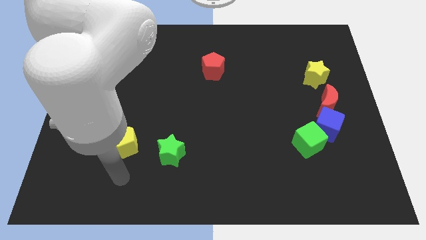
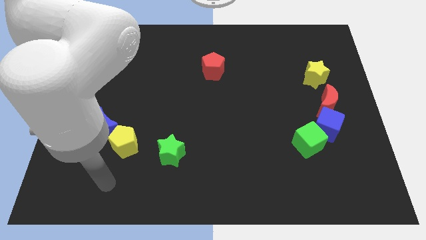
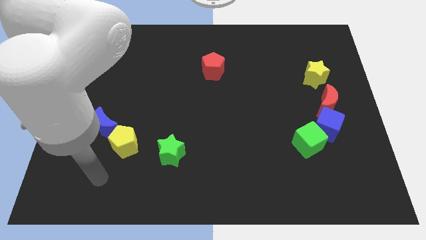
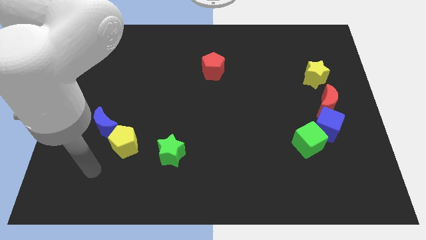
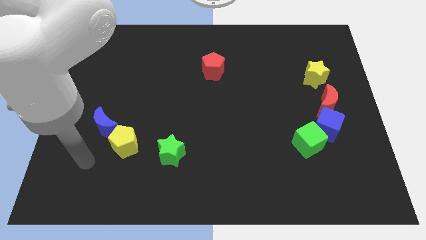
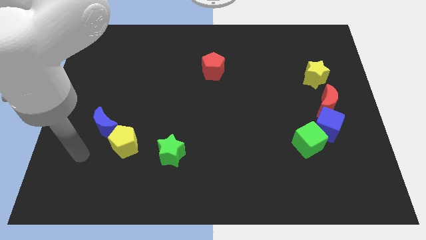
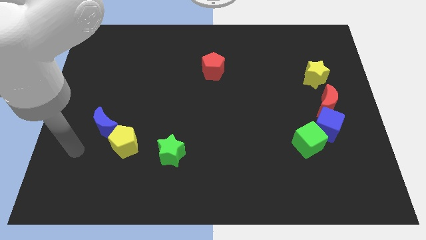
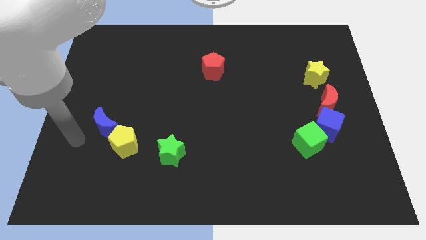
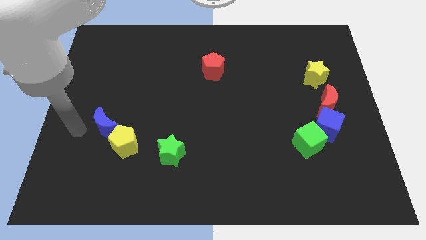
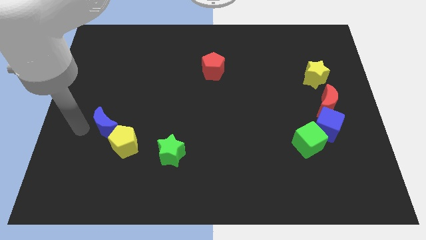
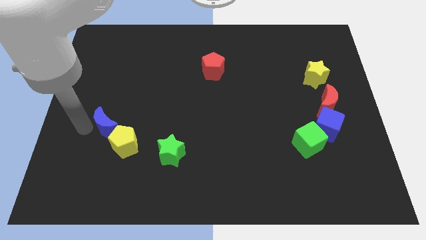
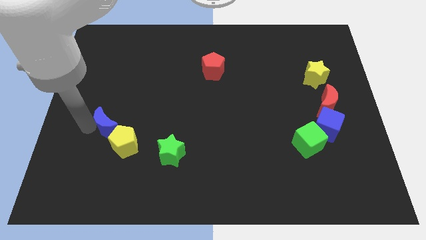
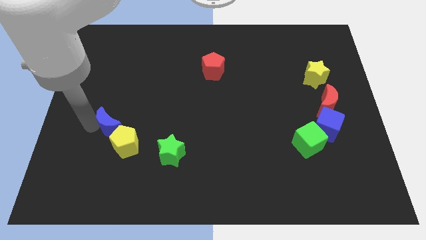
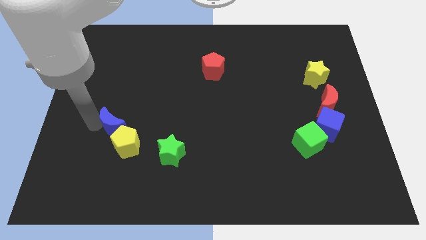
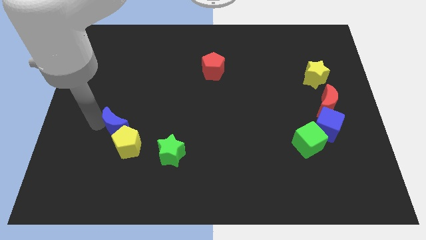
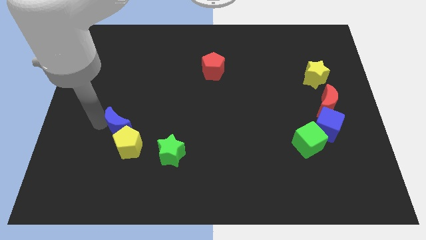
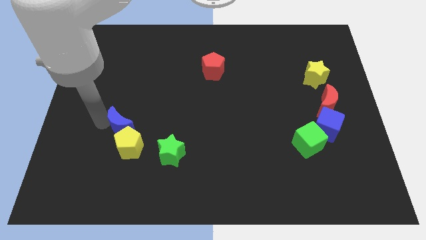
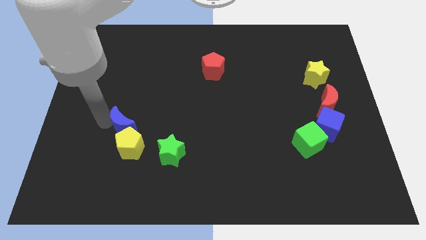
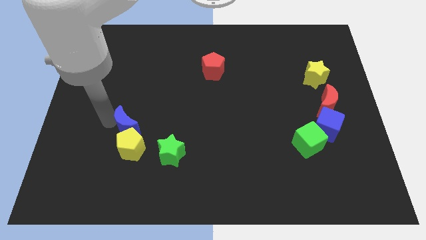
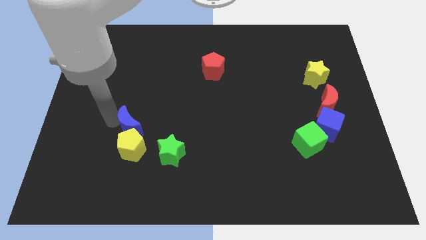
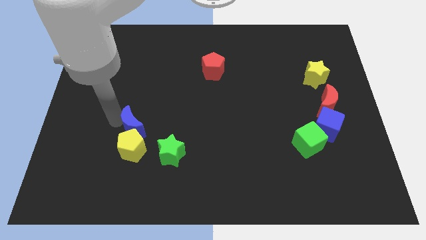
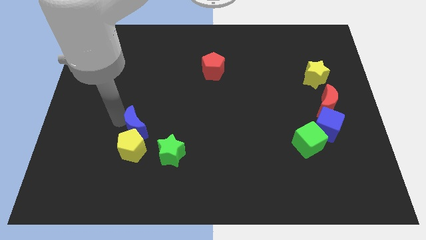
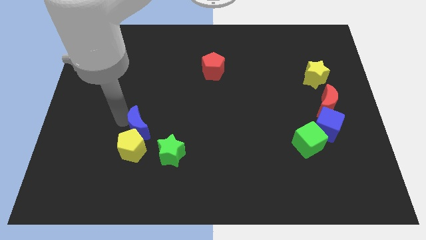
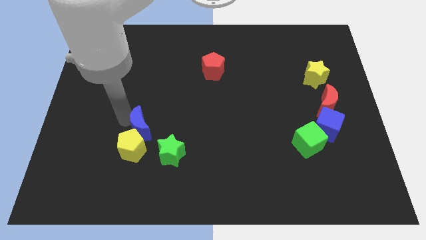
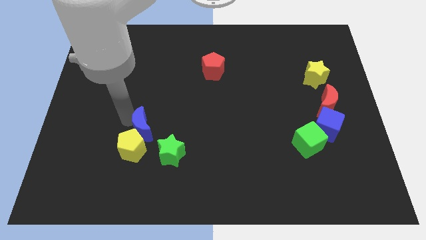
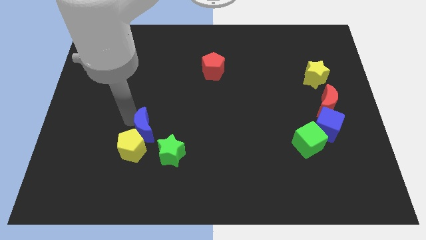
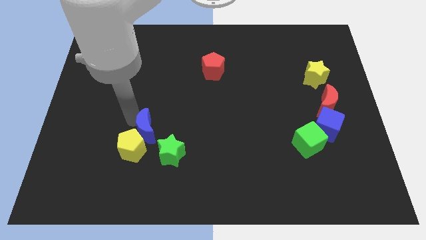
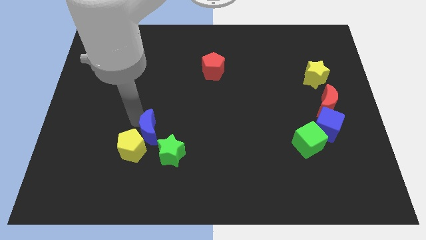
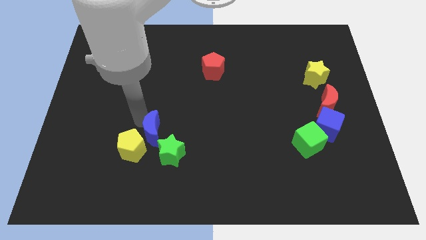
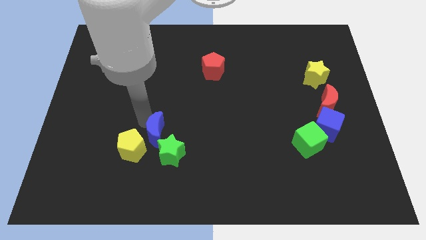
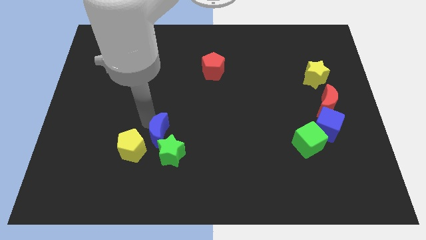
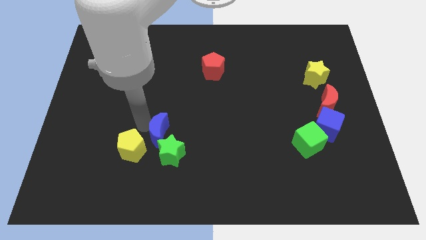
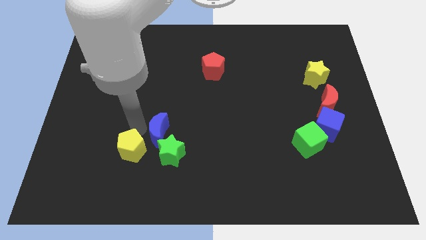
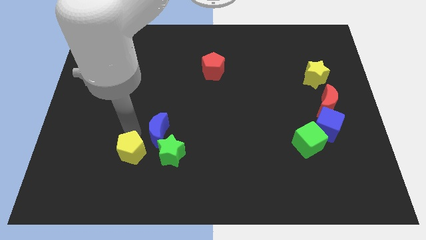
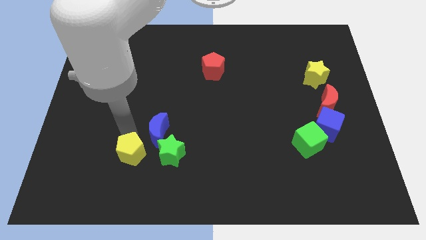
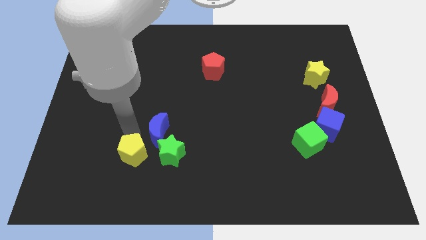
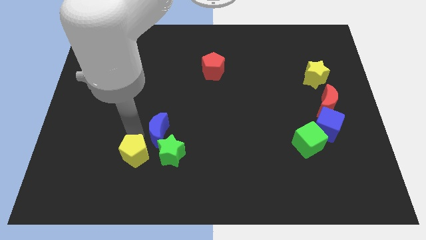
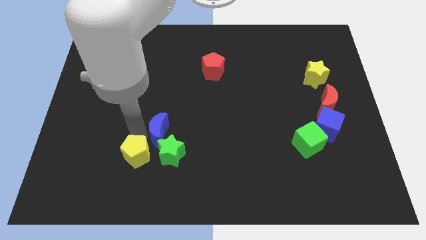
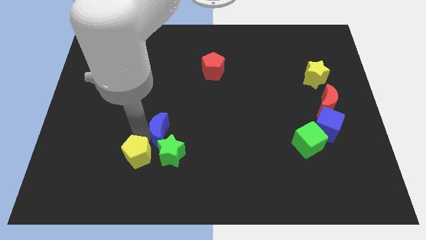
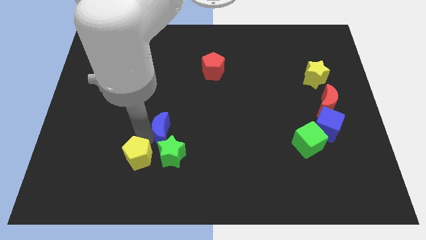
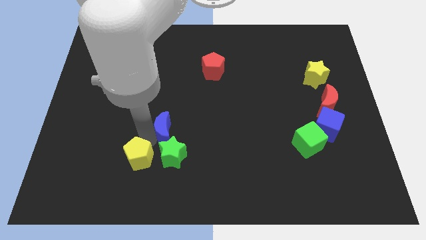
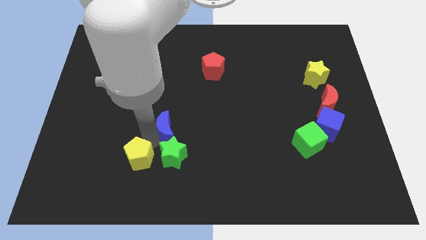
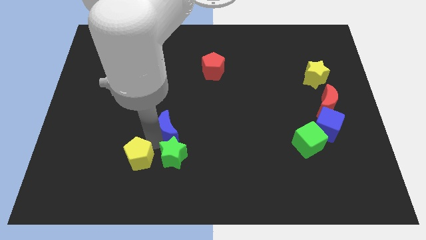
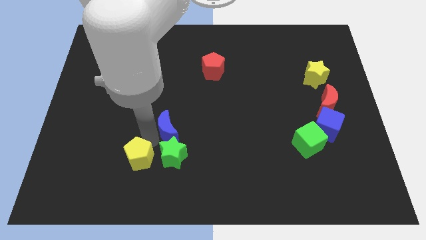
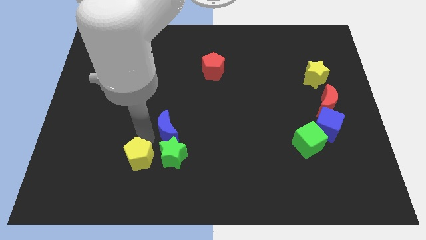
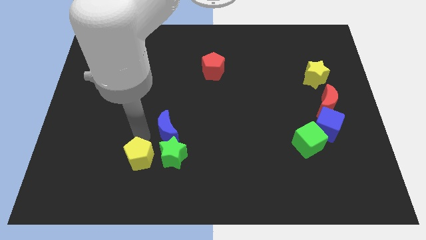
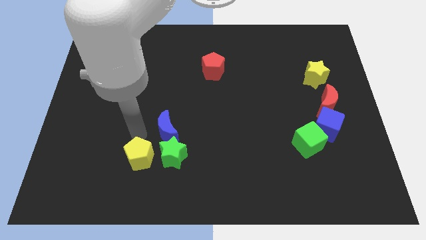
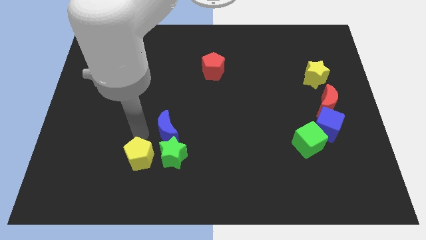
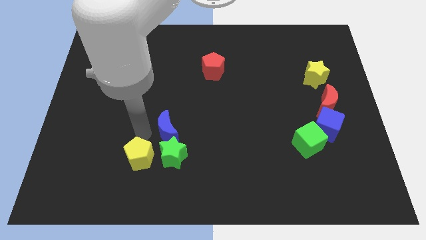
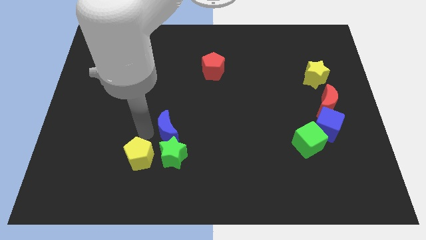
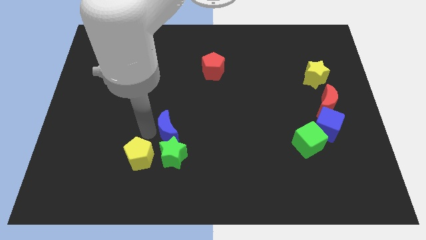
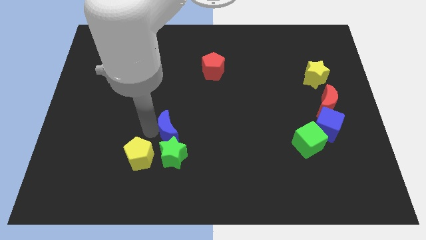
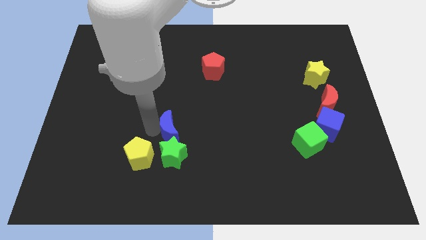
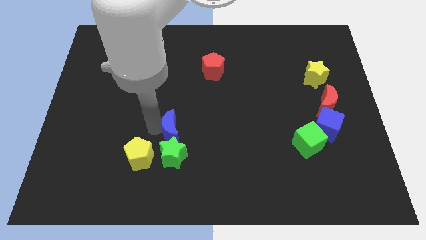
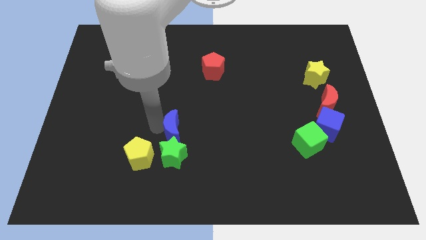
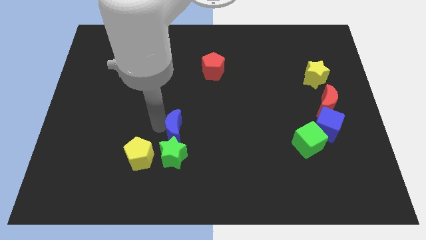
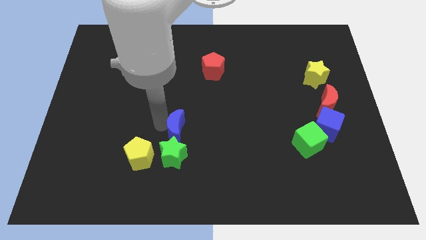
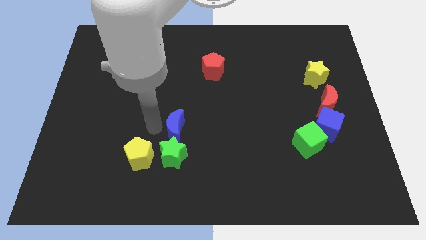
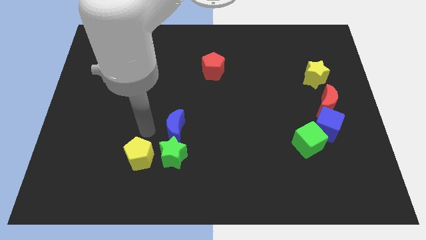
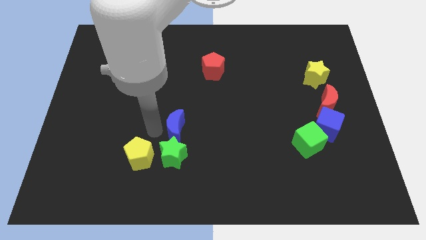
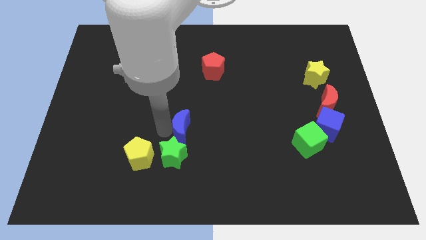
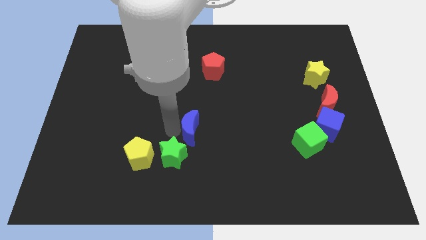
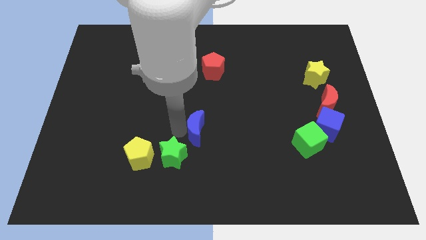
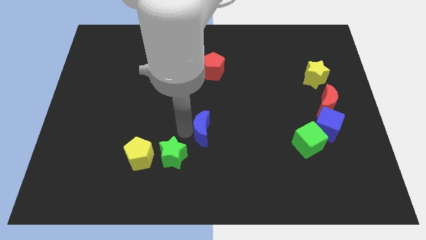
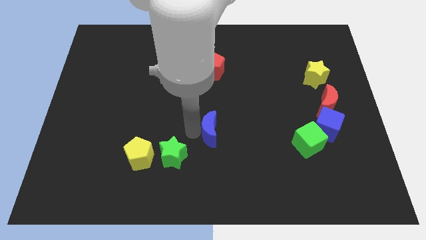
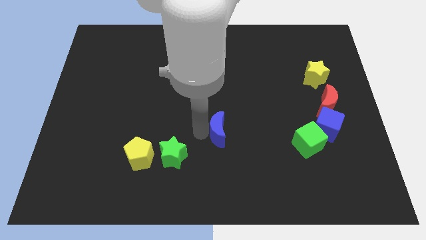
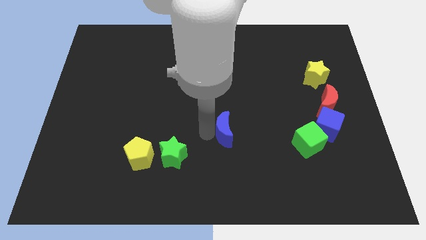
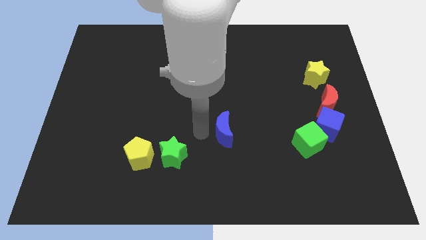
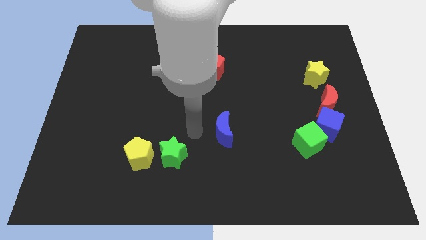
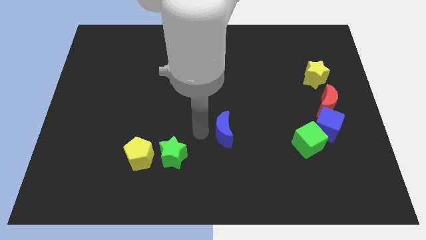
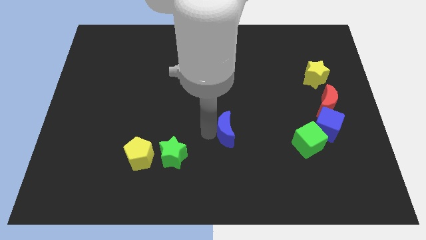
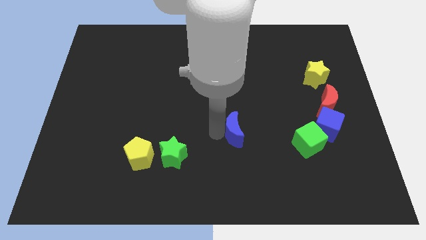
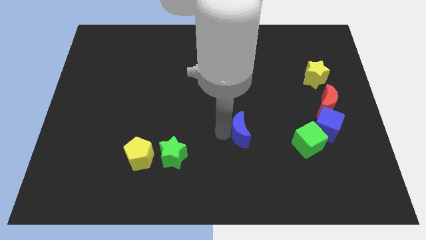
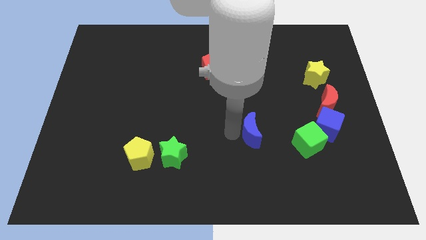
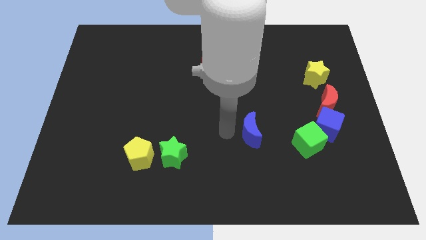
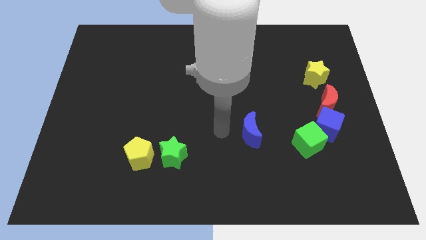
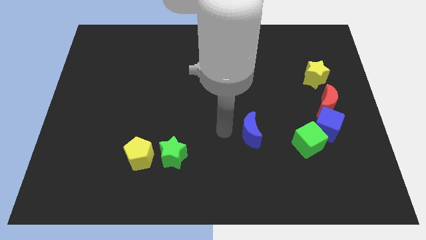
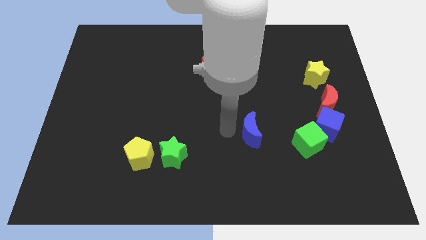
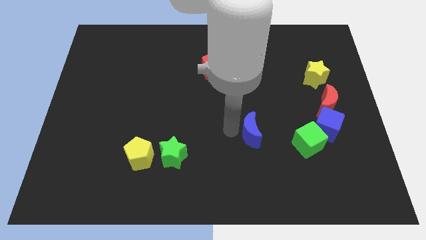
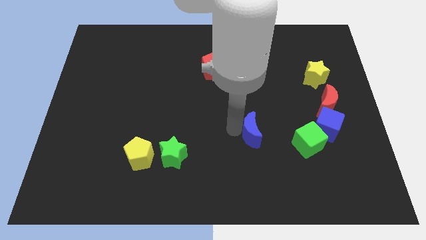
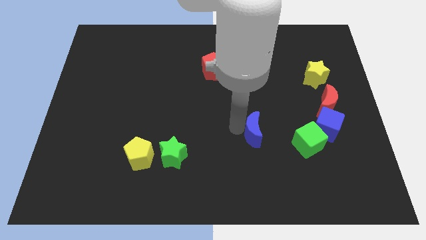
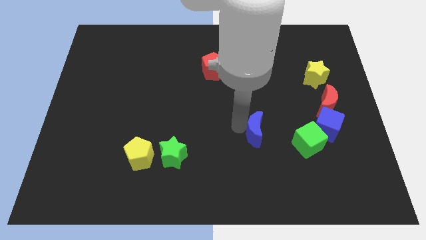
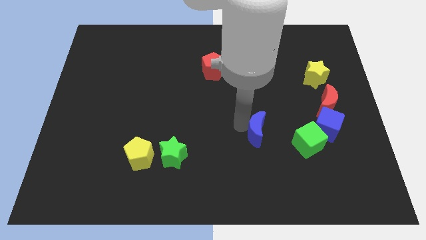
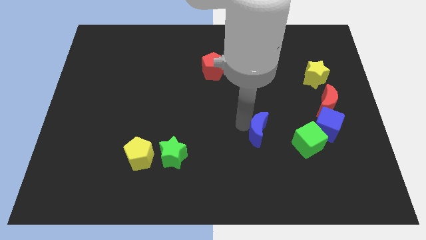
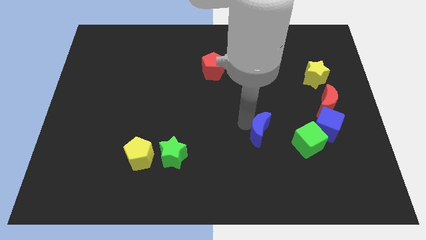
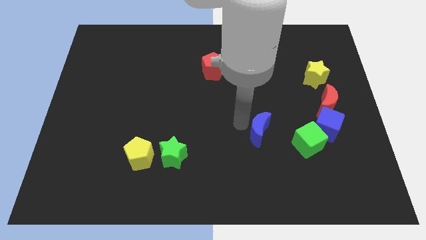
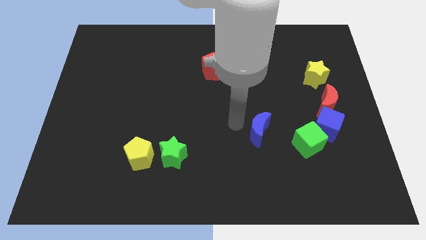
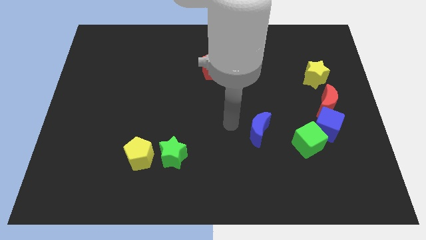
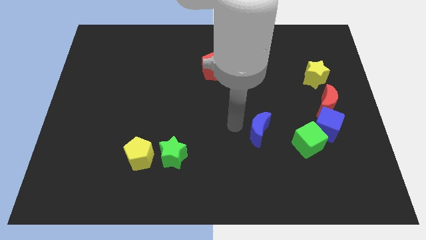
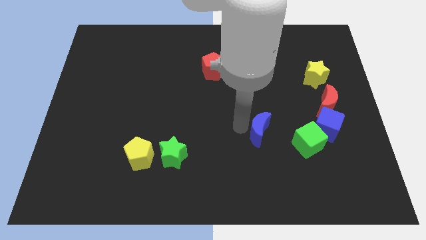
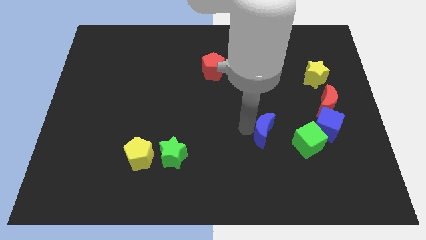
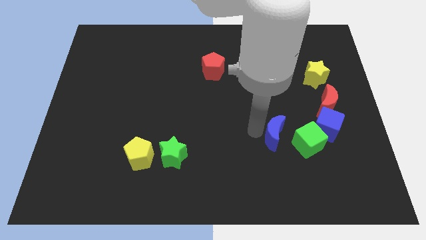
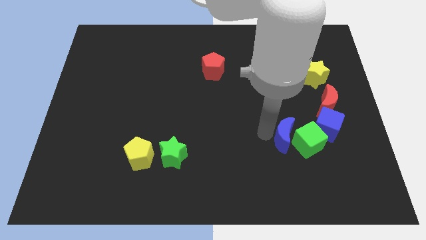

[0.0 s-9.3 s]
move the blue moon close to the green cube
